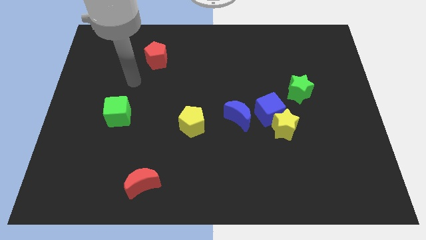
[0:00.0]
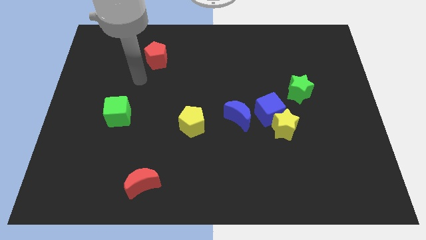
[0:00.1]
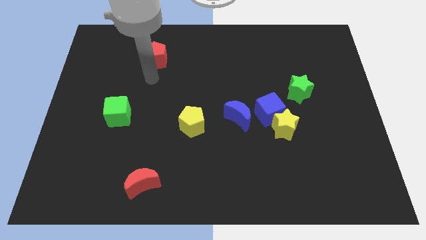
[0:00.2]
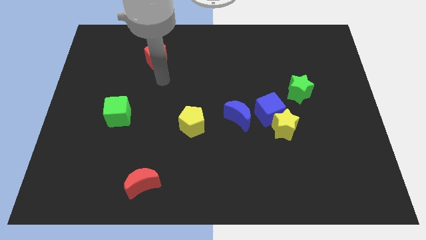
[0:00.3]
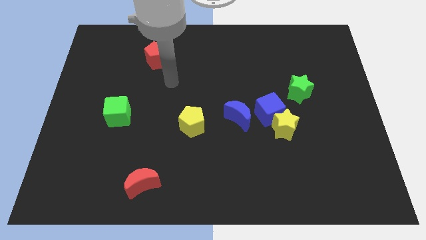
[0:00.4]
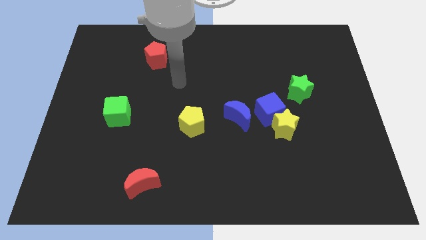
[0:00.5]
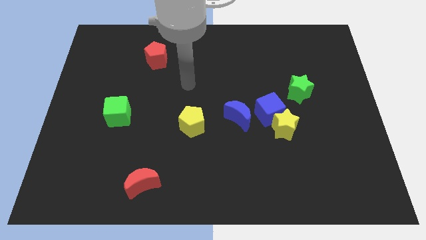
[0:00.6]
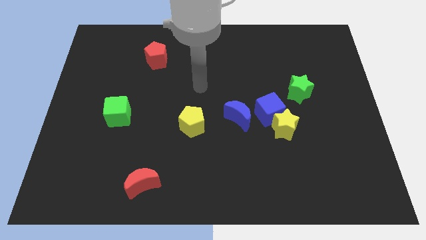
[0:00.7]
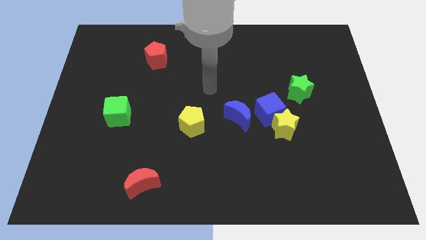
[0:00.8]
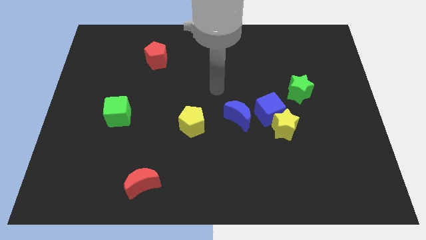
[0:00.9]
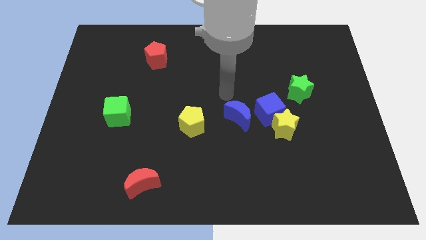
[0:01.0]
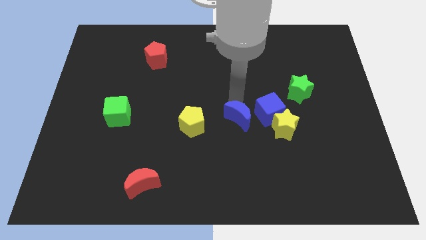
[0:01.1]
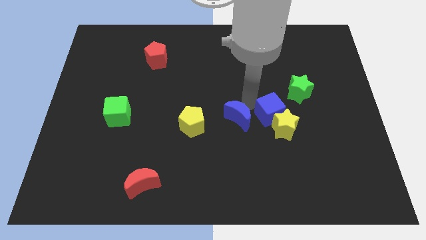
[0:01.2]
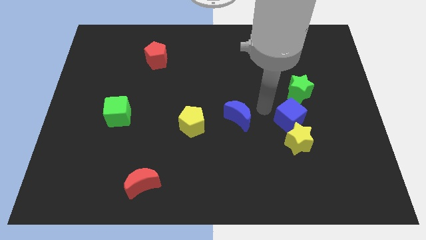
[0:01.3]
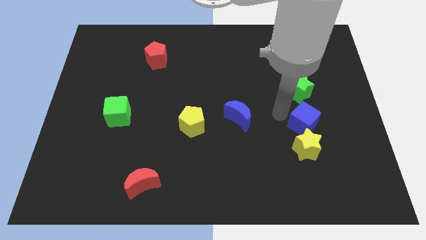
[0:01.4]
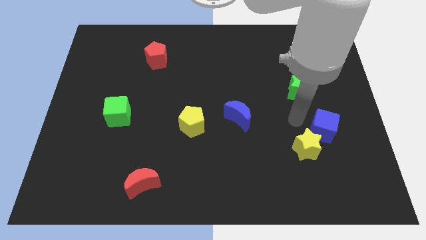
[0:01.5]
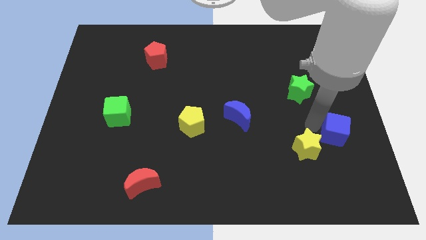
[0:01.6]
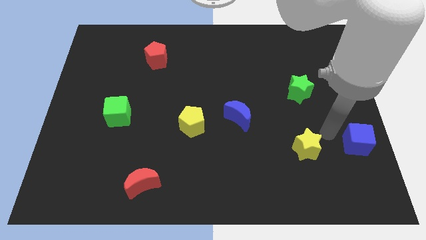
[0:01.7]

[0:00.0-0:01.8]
move the yellow star away from the blue cube

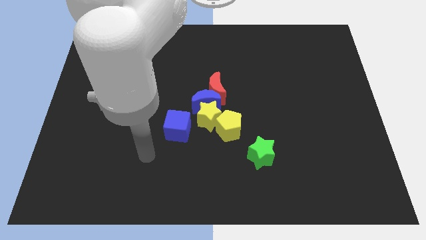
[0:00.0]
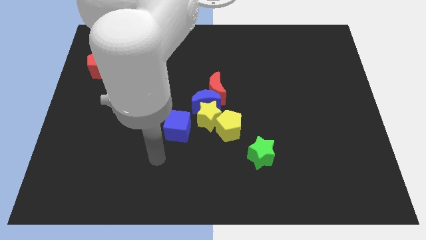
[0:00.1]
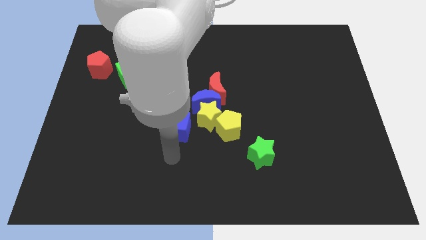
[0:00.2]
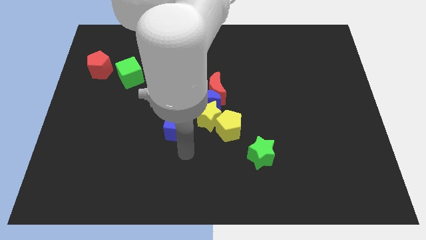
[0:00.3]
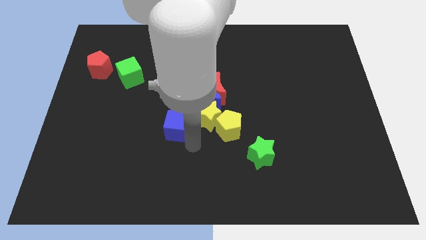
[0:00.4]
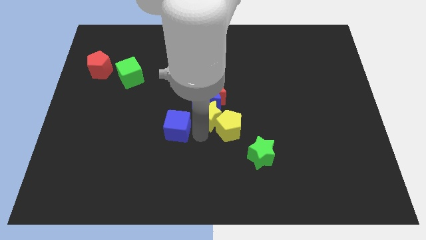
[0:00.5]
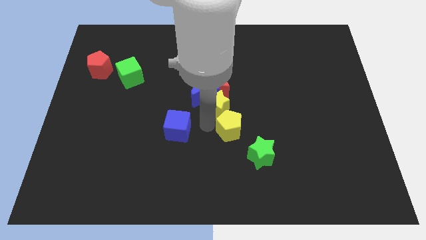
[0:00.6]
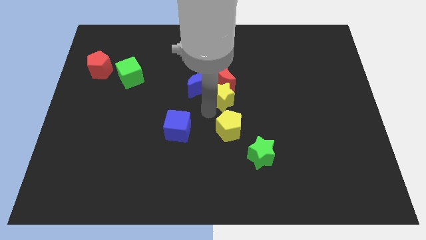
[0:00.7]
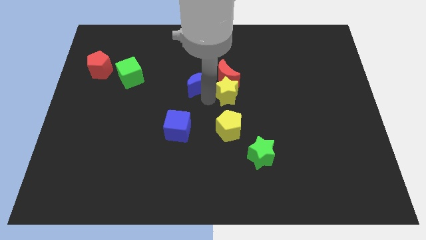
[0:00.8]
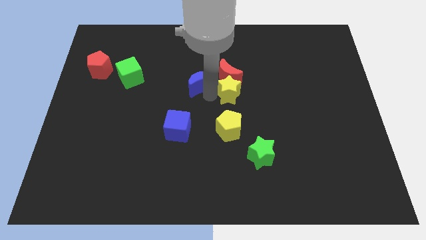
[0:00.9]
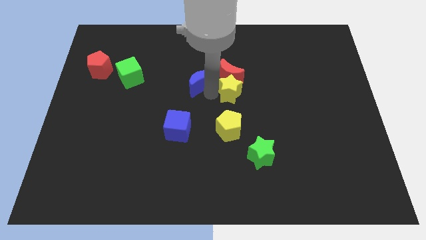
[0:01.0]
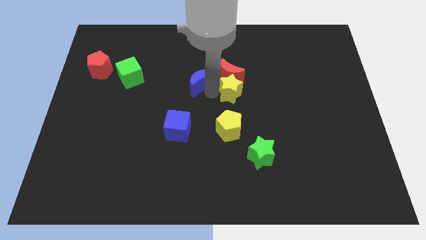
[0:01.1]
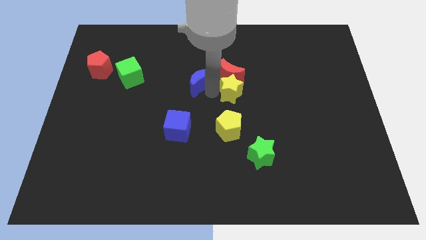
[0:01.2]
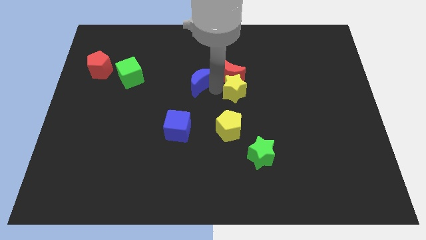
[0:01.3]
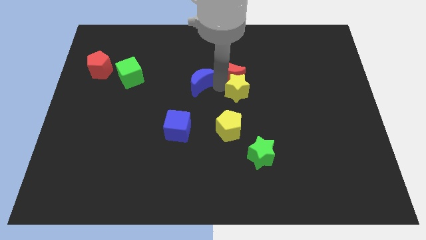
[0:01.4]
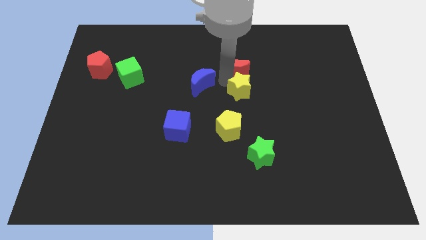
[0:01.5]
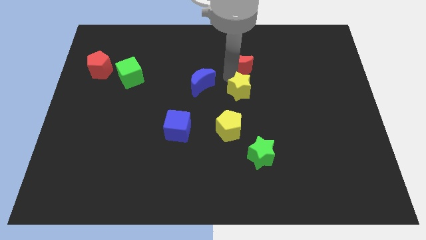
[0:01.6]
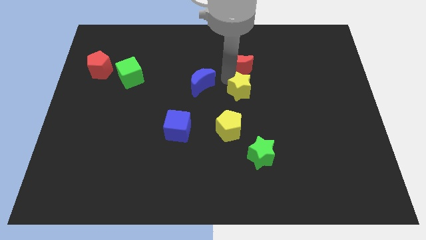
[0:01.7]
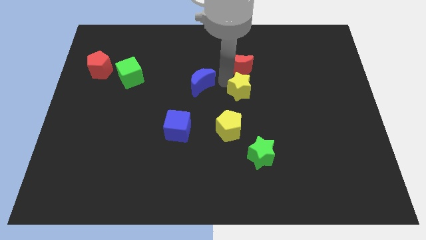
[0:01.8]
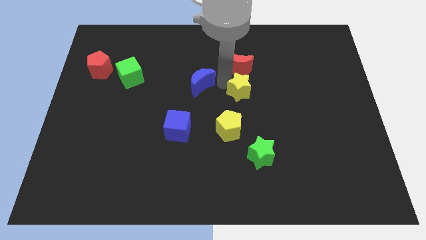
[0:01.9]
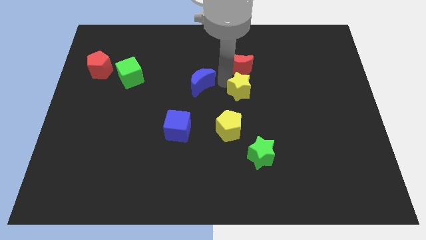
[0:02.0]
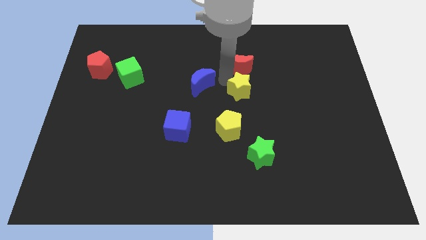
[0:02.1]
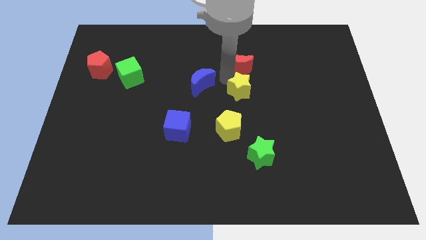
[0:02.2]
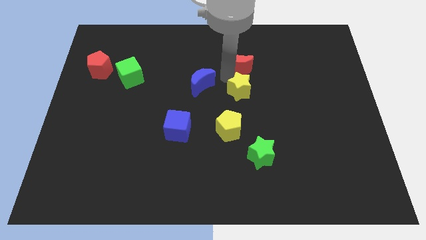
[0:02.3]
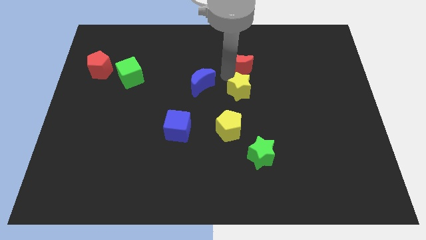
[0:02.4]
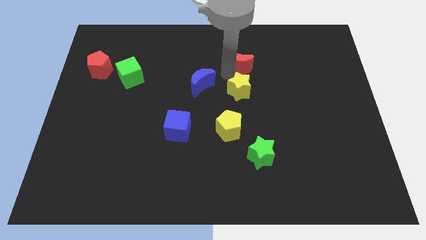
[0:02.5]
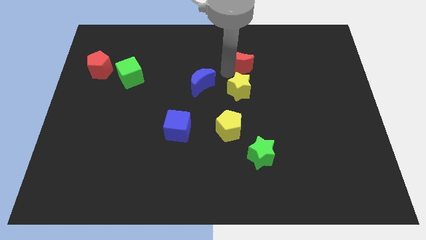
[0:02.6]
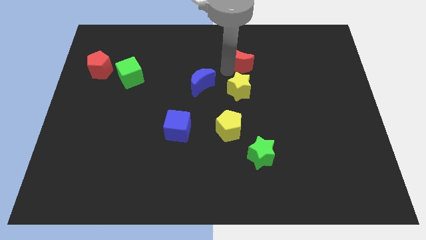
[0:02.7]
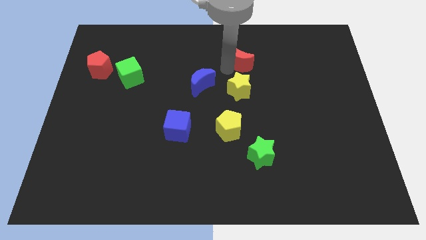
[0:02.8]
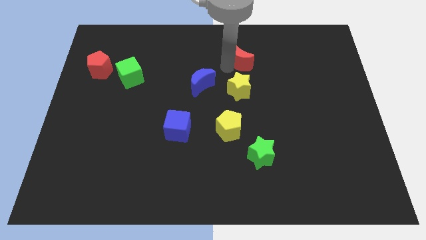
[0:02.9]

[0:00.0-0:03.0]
pull the red moon apart from the blue moon and yellow star

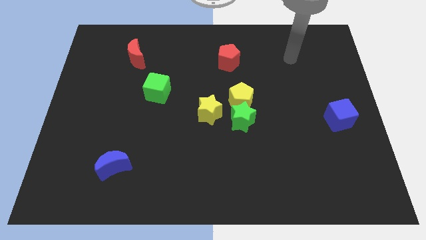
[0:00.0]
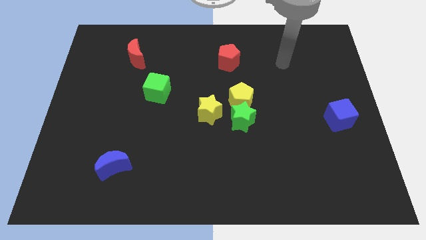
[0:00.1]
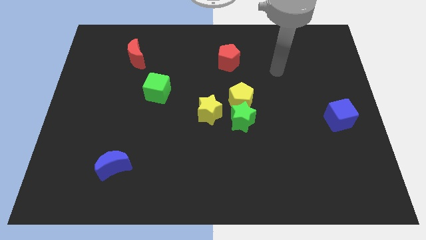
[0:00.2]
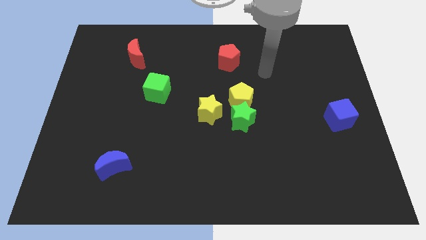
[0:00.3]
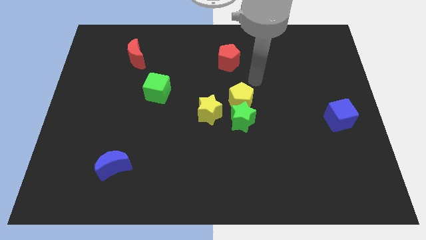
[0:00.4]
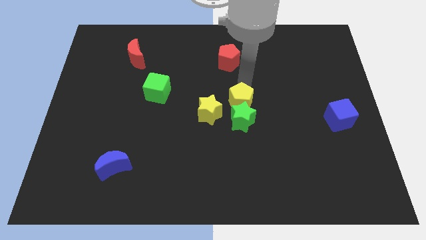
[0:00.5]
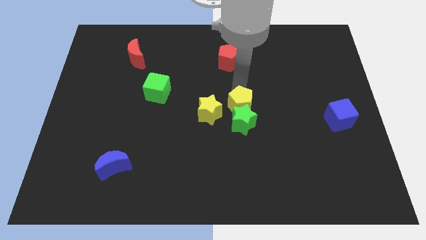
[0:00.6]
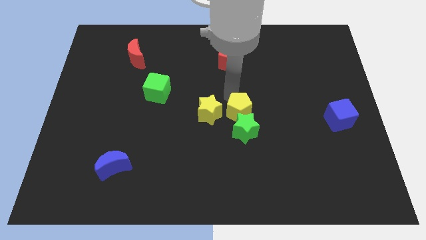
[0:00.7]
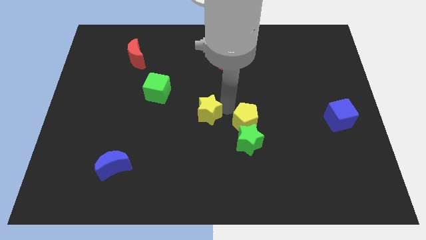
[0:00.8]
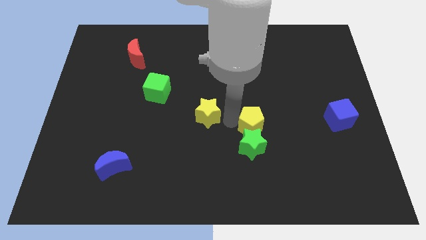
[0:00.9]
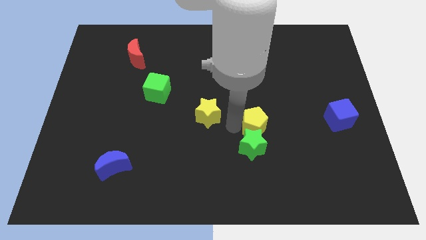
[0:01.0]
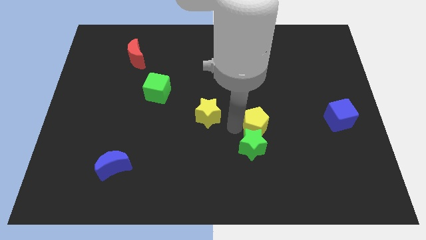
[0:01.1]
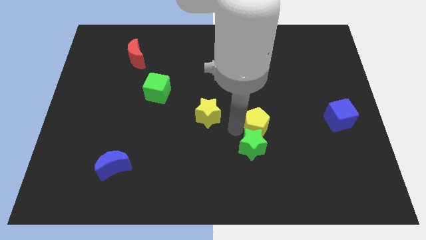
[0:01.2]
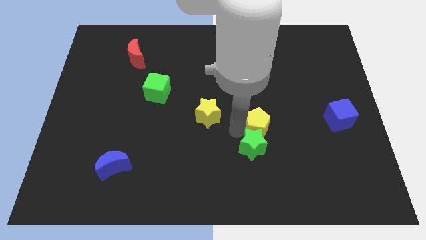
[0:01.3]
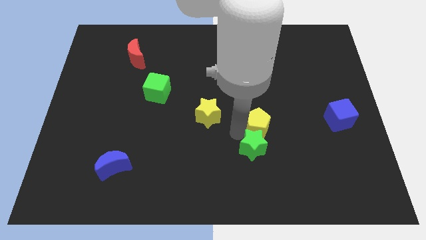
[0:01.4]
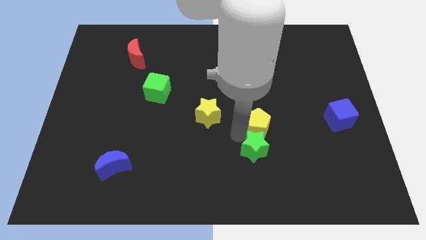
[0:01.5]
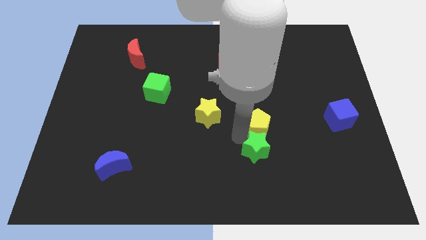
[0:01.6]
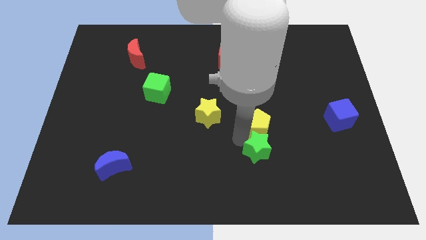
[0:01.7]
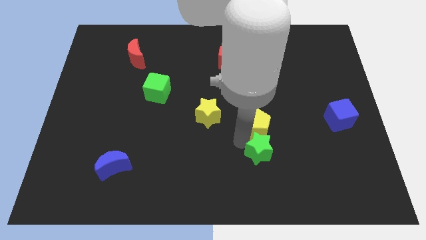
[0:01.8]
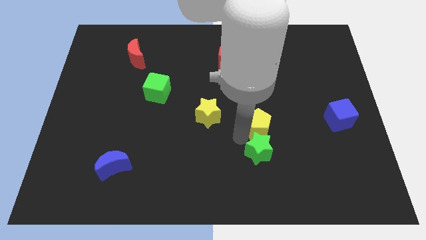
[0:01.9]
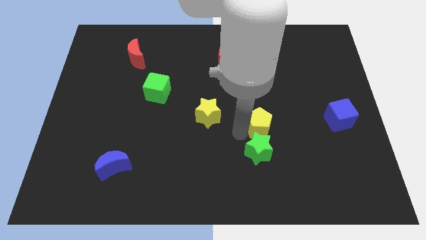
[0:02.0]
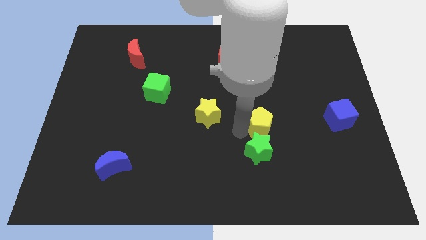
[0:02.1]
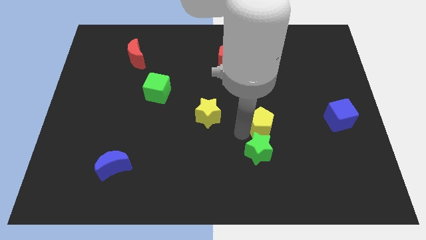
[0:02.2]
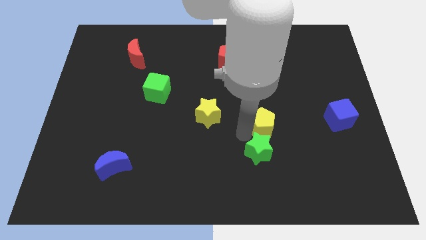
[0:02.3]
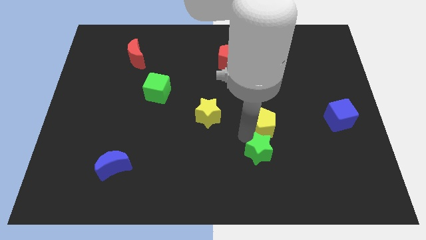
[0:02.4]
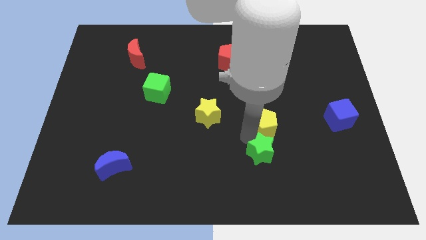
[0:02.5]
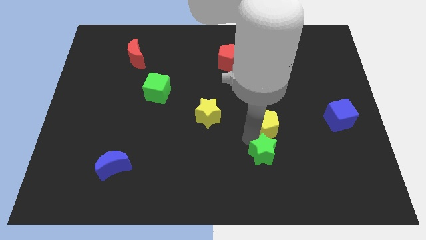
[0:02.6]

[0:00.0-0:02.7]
move the green star away from the yellow pentagon and yellow star

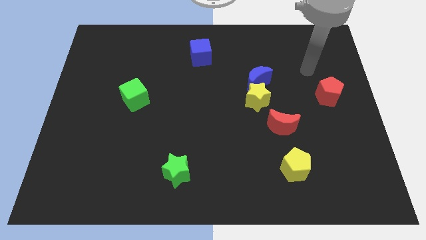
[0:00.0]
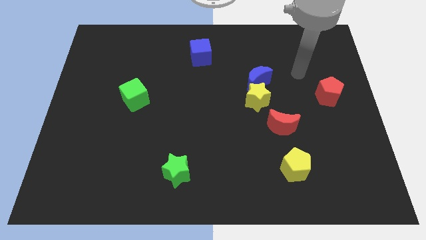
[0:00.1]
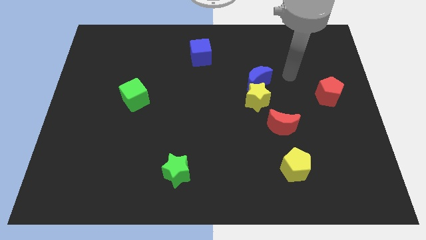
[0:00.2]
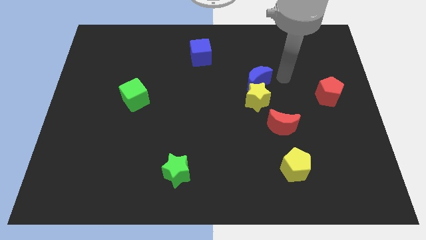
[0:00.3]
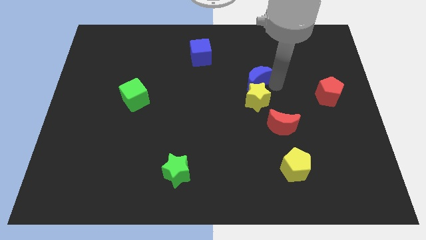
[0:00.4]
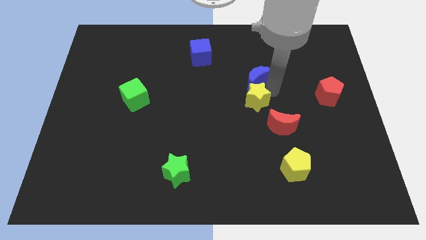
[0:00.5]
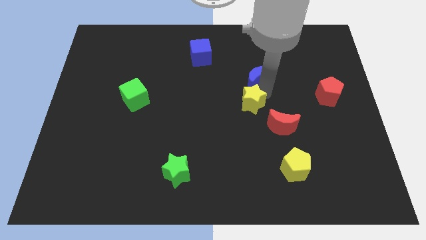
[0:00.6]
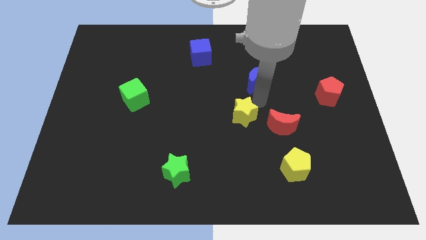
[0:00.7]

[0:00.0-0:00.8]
separate the blue moon from the yellow star

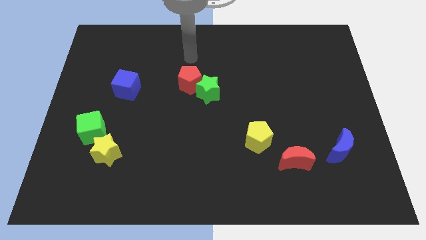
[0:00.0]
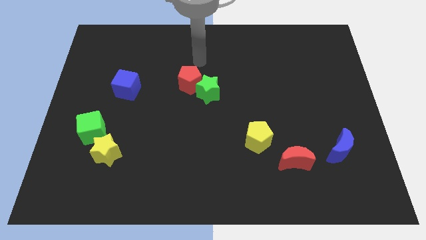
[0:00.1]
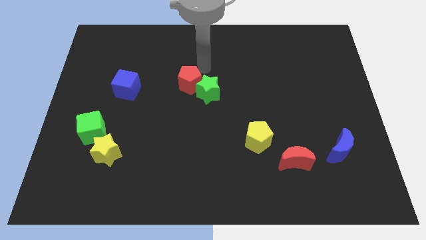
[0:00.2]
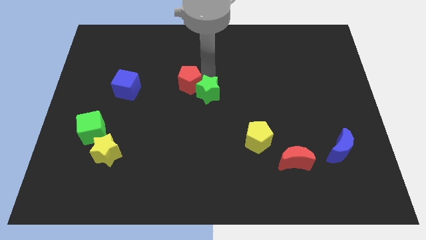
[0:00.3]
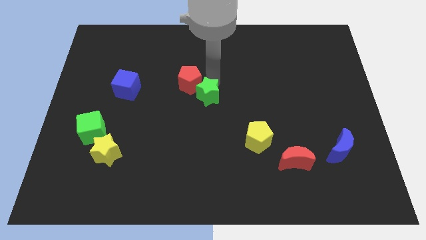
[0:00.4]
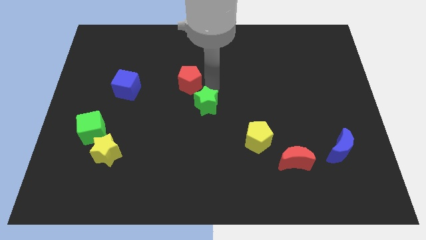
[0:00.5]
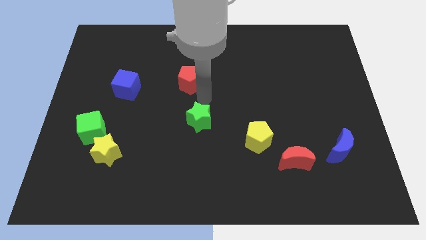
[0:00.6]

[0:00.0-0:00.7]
pull the red pentagon apart from the green star

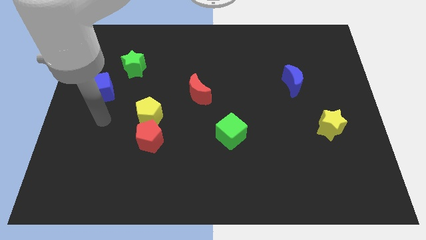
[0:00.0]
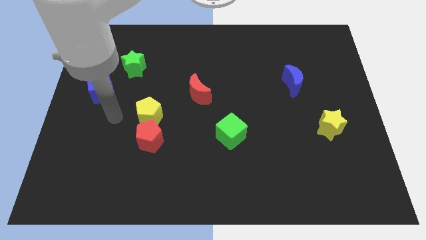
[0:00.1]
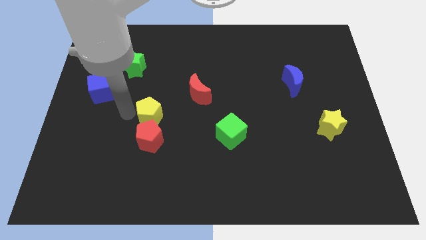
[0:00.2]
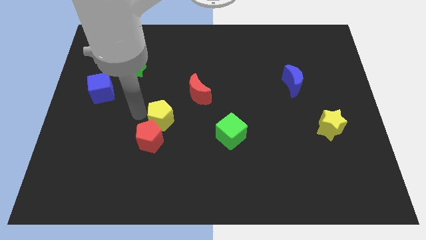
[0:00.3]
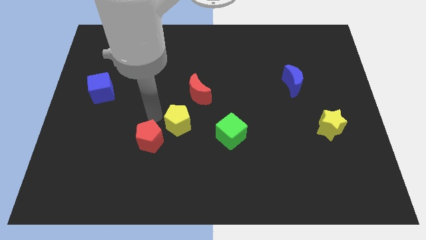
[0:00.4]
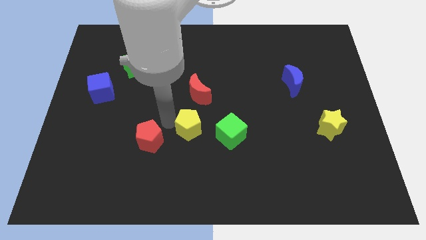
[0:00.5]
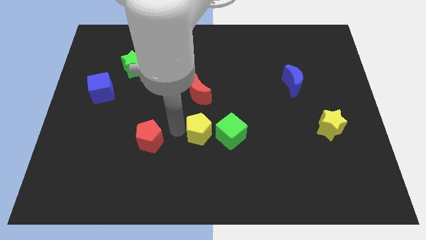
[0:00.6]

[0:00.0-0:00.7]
pull the red pentagon apart from the yellow pentagon
